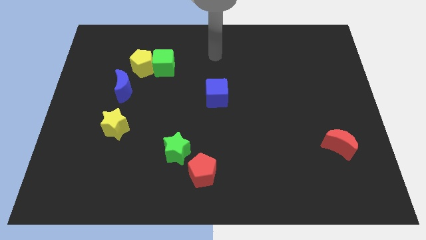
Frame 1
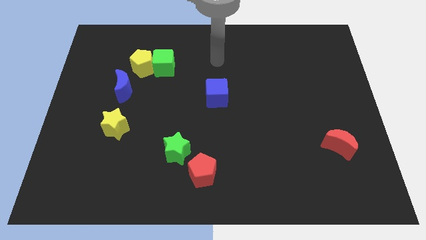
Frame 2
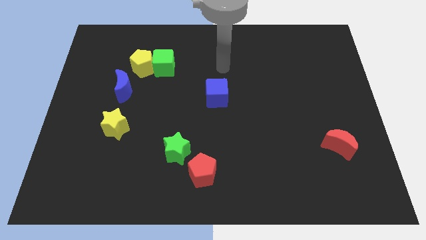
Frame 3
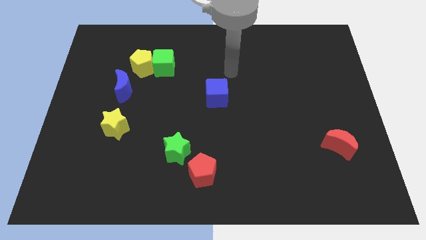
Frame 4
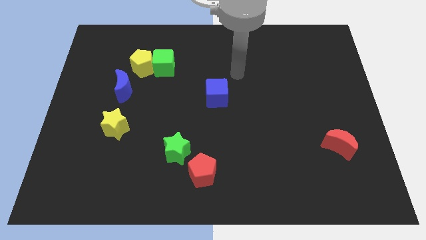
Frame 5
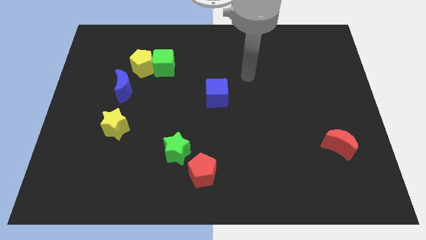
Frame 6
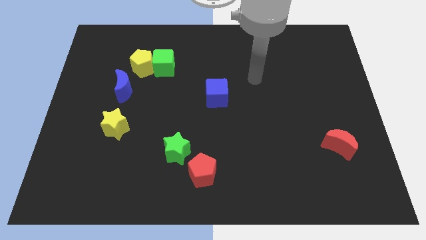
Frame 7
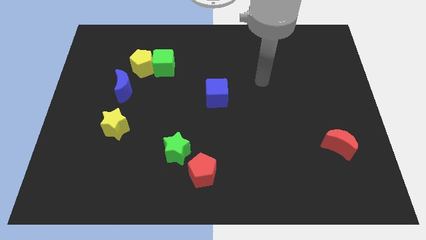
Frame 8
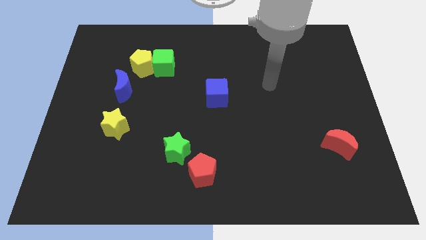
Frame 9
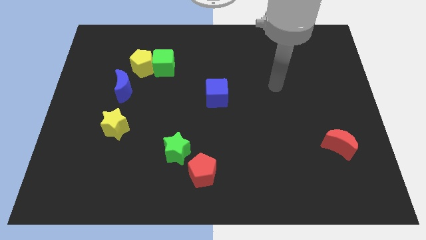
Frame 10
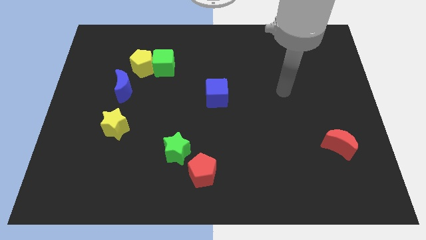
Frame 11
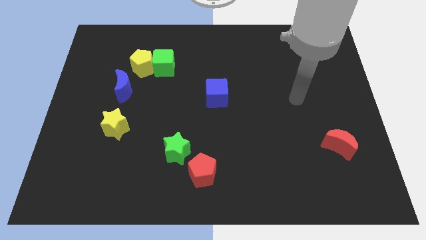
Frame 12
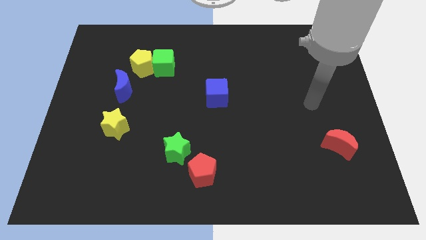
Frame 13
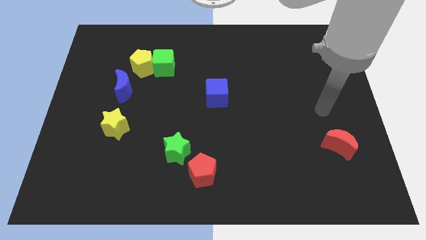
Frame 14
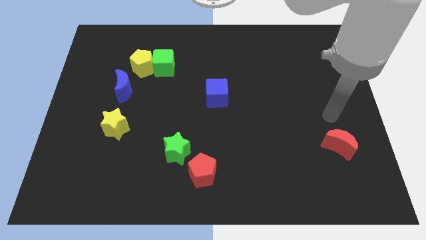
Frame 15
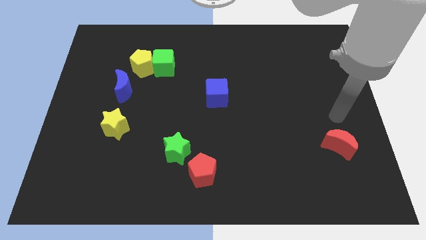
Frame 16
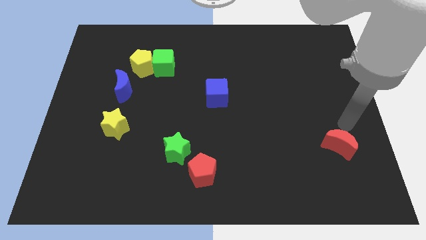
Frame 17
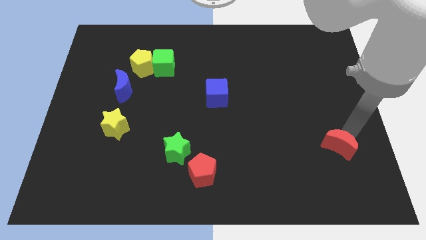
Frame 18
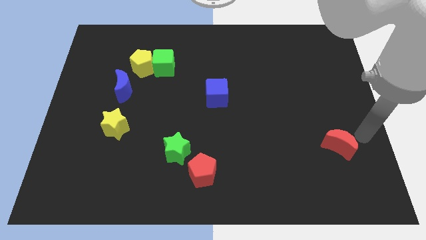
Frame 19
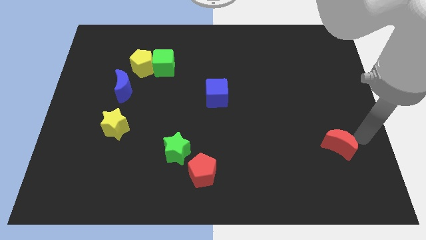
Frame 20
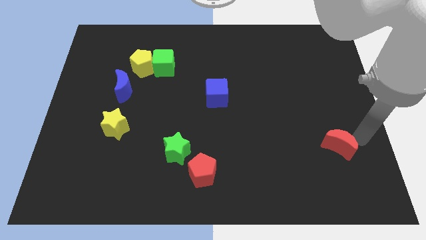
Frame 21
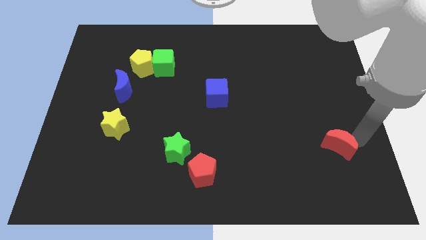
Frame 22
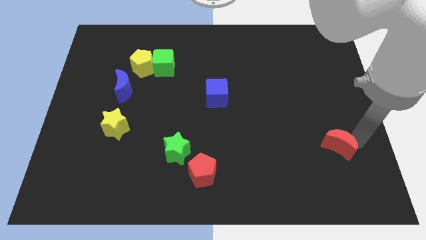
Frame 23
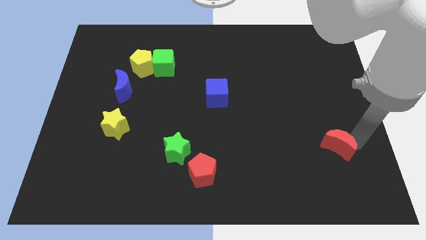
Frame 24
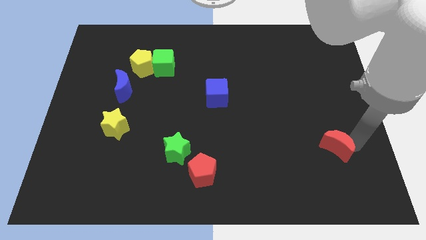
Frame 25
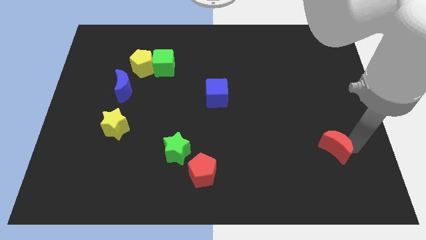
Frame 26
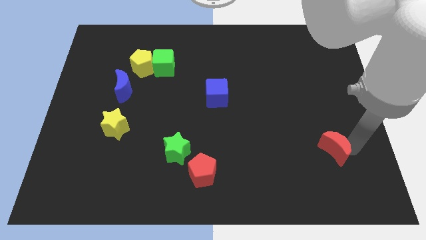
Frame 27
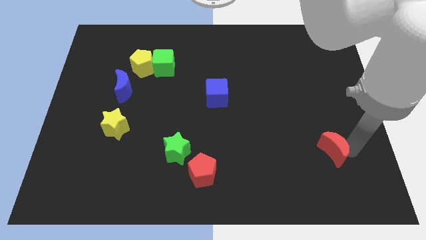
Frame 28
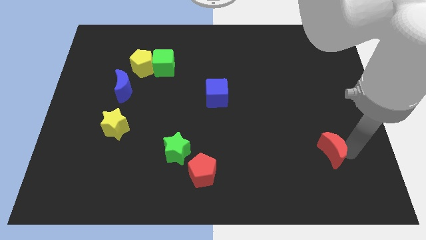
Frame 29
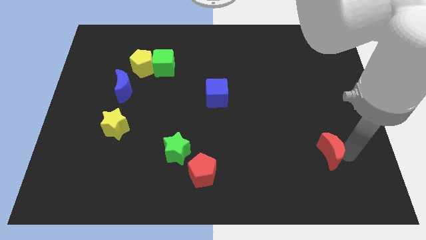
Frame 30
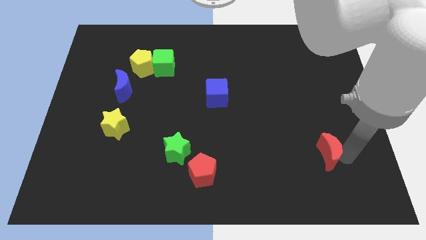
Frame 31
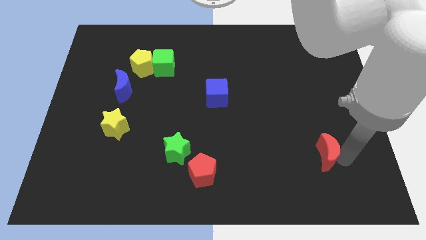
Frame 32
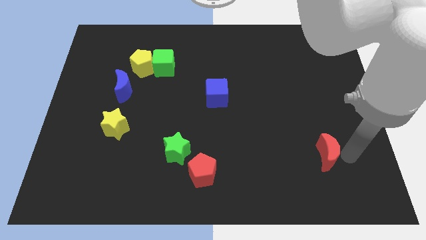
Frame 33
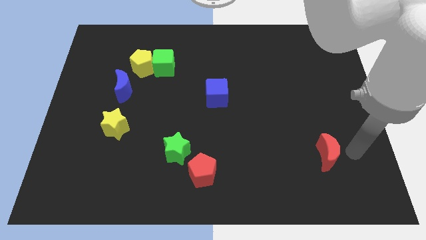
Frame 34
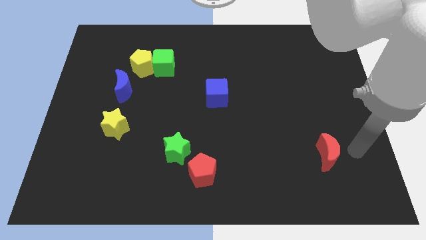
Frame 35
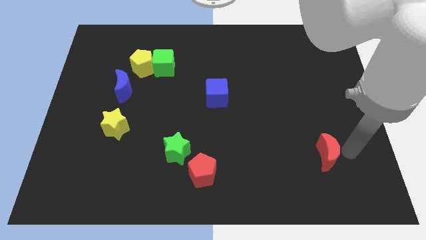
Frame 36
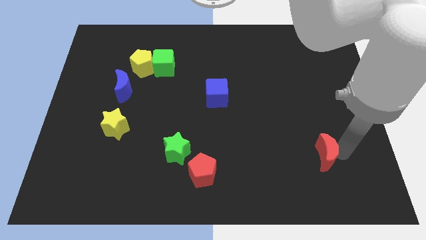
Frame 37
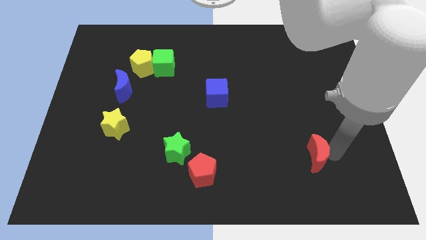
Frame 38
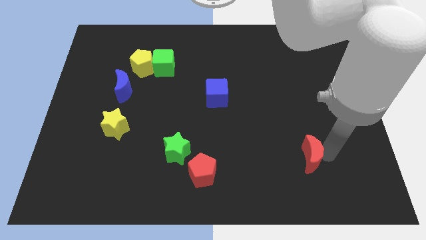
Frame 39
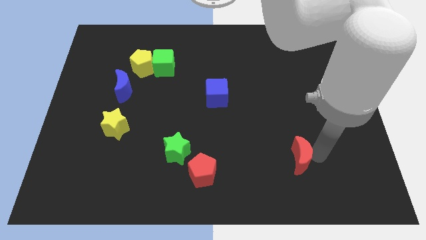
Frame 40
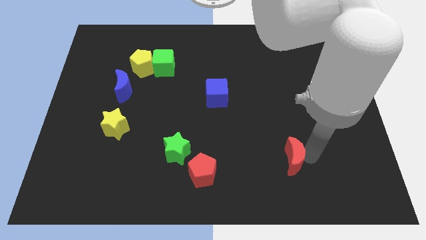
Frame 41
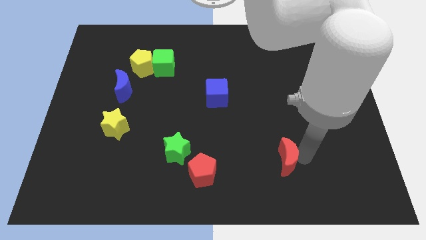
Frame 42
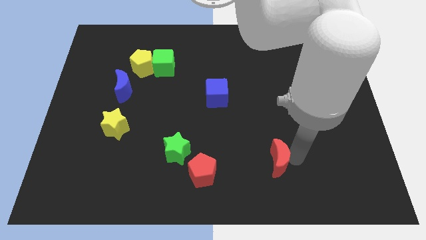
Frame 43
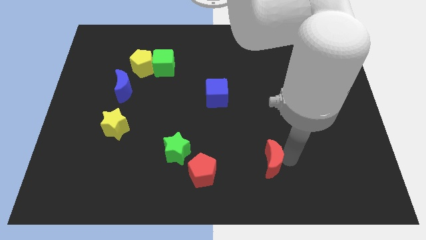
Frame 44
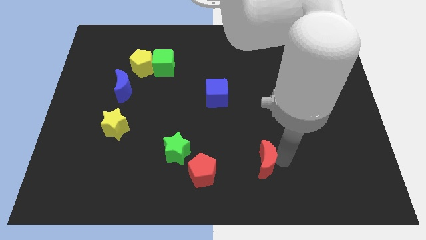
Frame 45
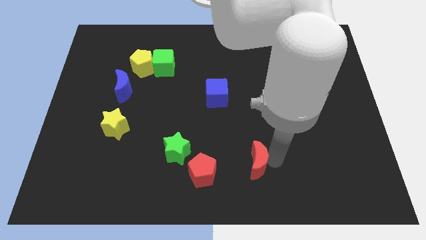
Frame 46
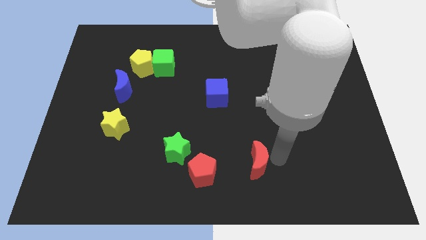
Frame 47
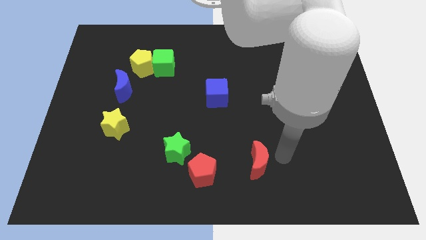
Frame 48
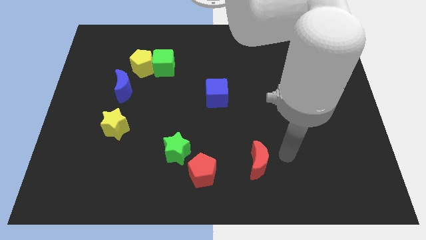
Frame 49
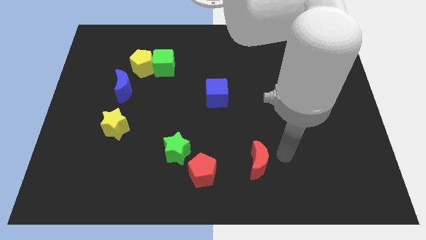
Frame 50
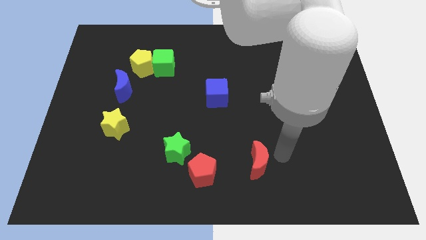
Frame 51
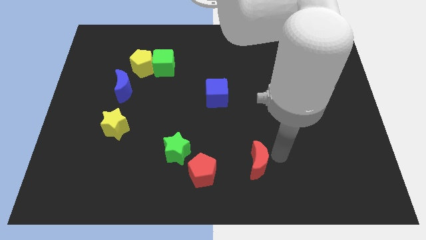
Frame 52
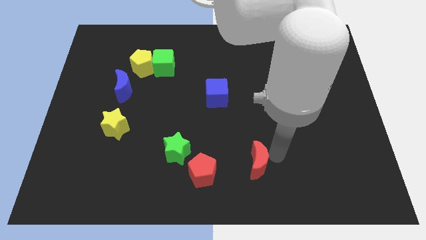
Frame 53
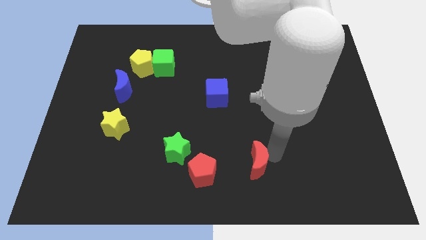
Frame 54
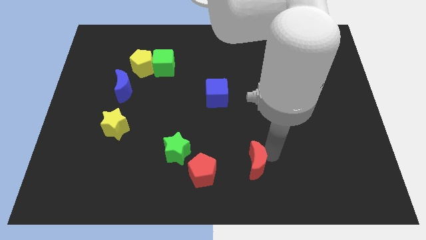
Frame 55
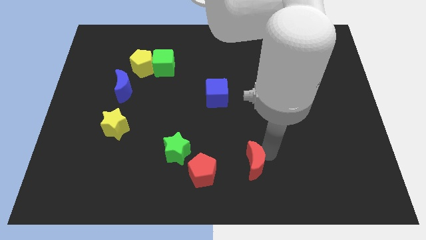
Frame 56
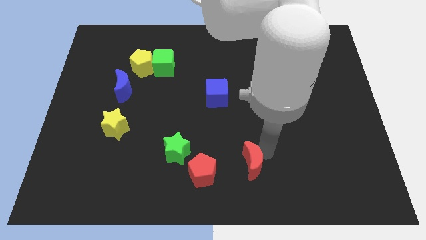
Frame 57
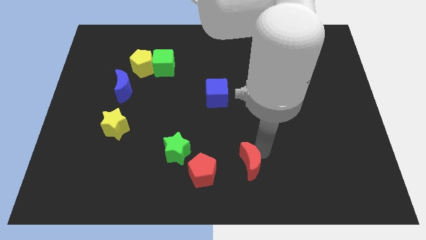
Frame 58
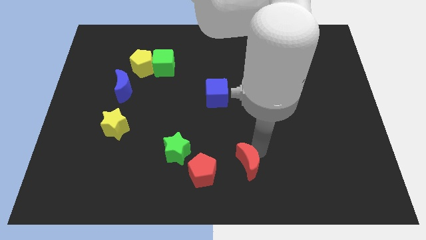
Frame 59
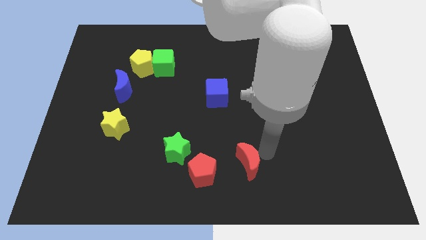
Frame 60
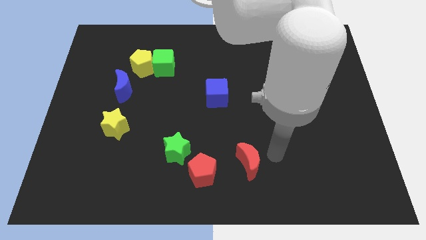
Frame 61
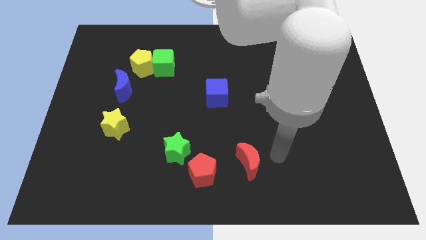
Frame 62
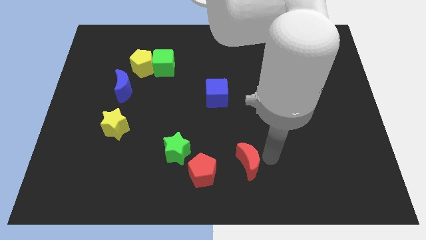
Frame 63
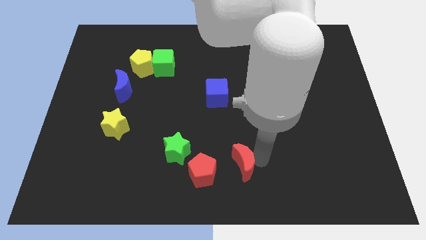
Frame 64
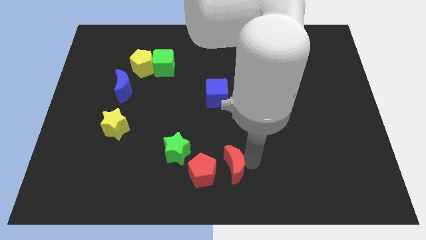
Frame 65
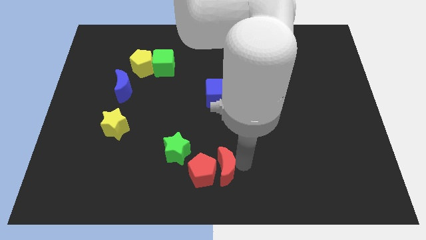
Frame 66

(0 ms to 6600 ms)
slide the red moon to the red pentagon

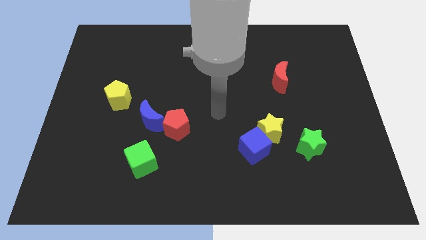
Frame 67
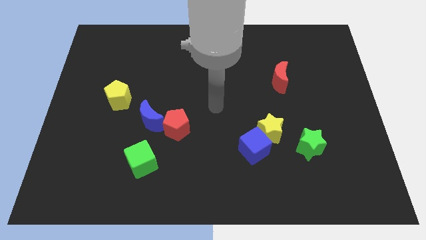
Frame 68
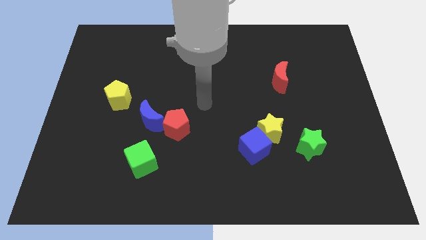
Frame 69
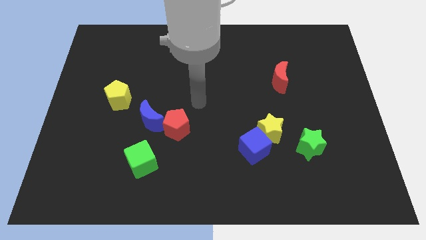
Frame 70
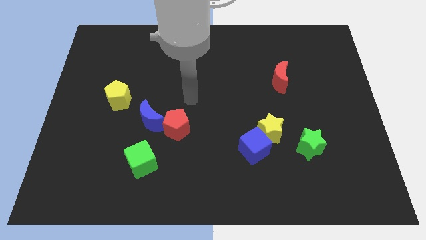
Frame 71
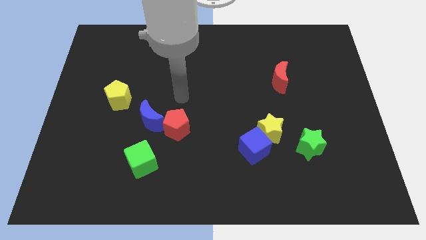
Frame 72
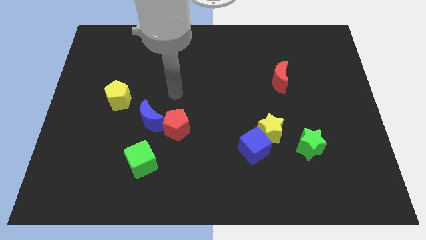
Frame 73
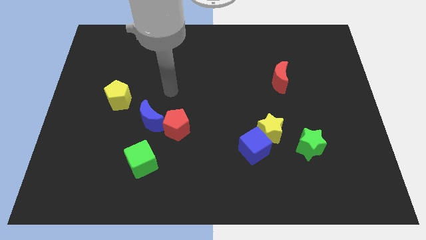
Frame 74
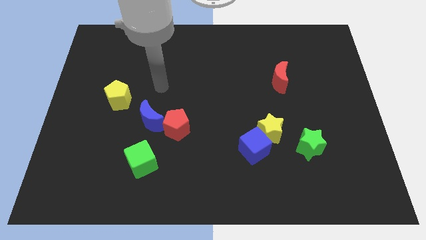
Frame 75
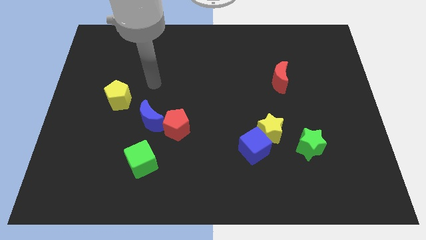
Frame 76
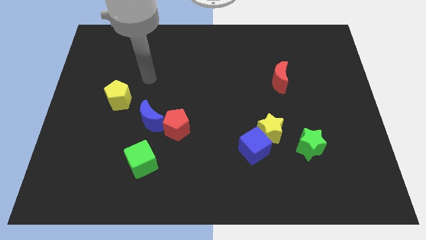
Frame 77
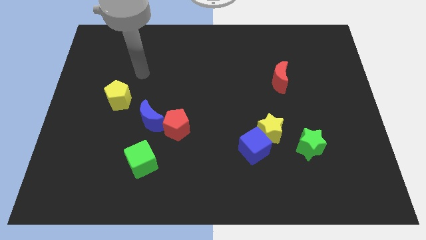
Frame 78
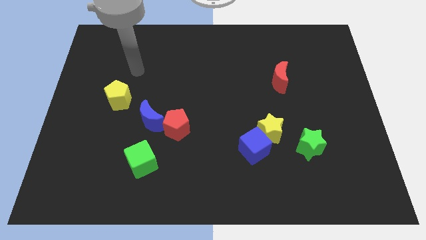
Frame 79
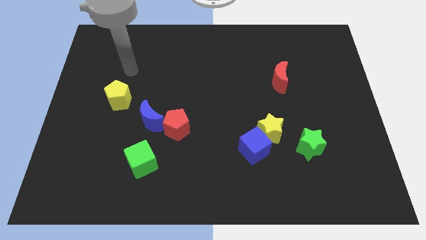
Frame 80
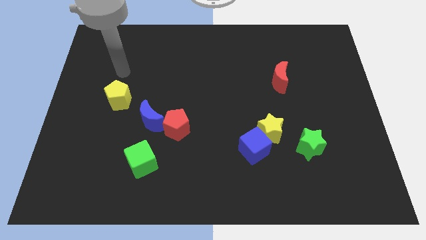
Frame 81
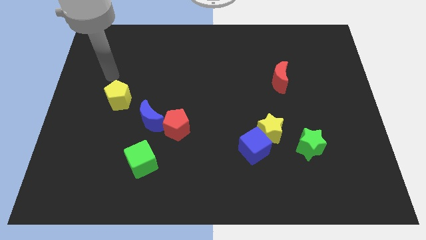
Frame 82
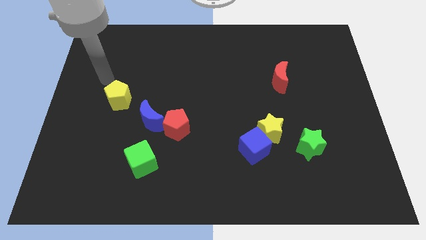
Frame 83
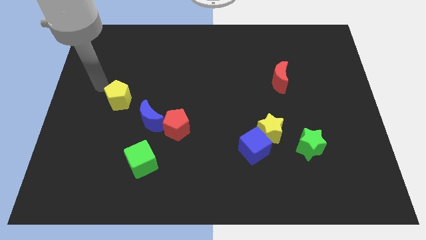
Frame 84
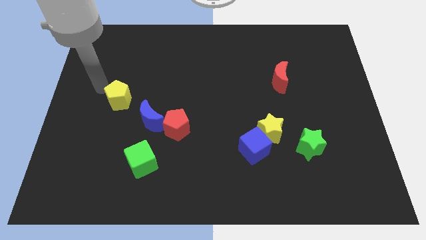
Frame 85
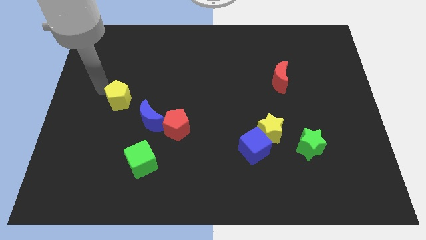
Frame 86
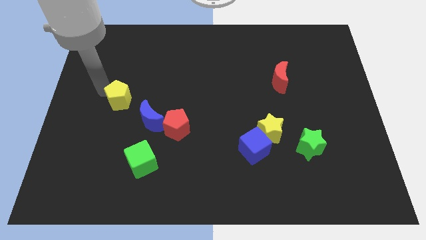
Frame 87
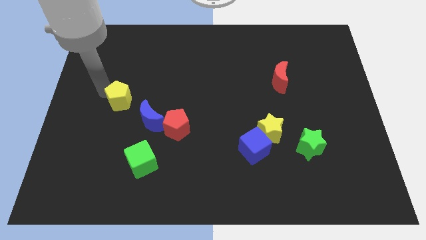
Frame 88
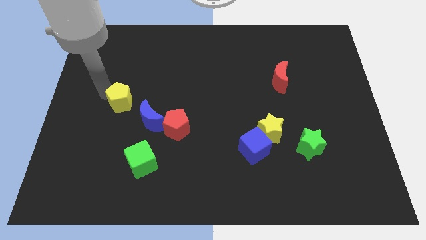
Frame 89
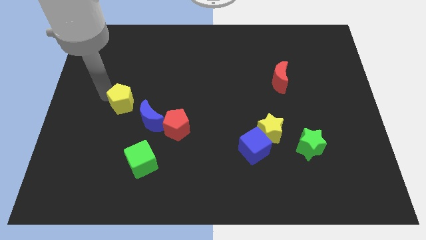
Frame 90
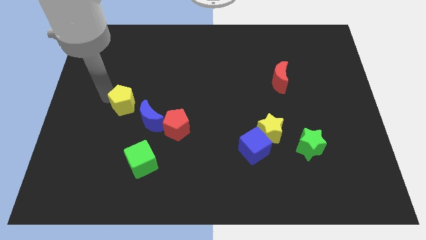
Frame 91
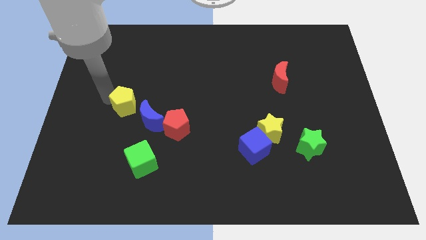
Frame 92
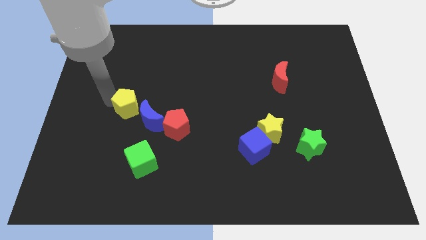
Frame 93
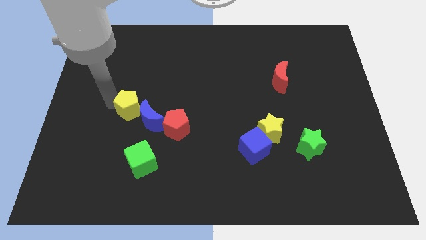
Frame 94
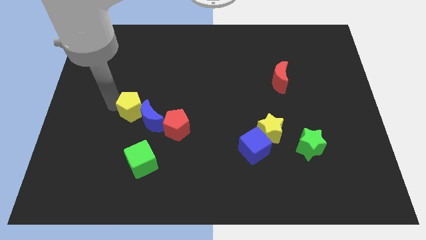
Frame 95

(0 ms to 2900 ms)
slide the yellow pentagon to the blue moon
